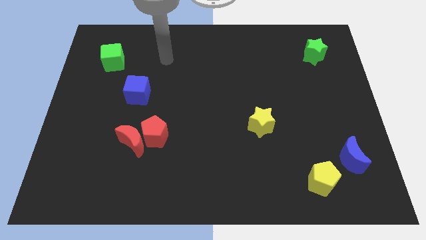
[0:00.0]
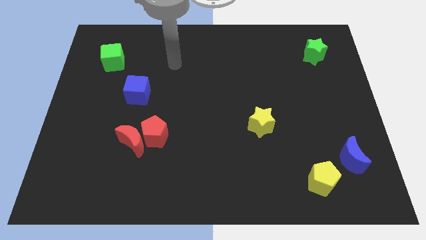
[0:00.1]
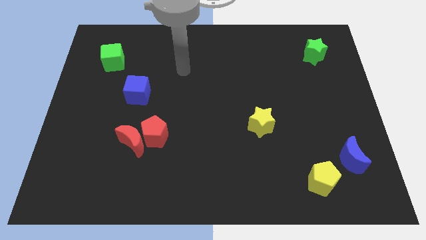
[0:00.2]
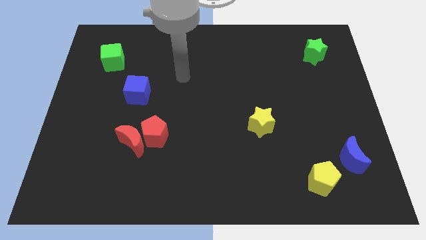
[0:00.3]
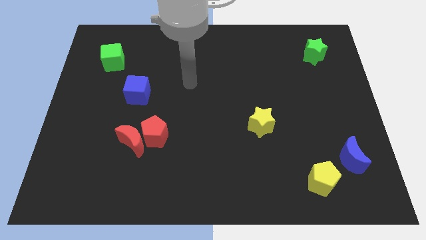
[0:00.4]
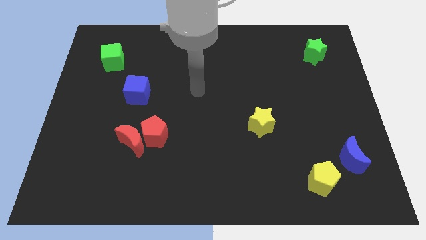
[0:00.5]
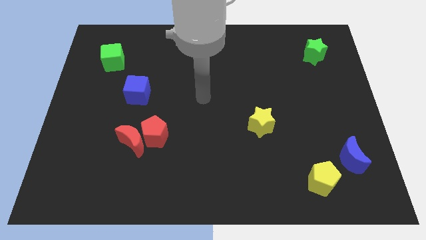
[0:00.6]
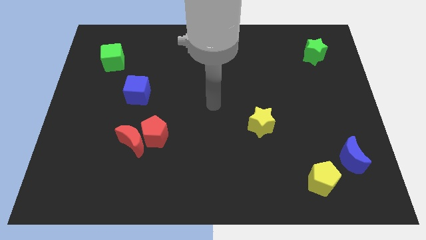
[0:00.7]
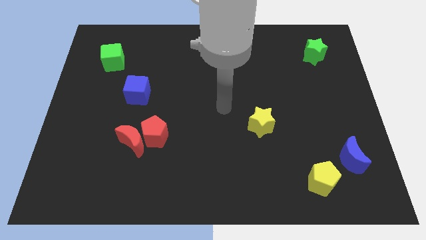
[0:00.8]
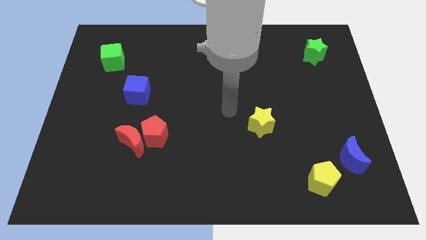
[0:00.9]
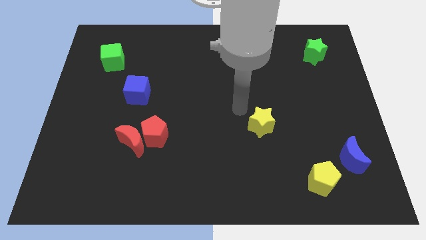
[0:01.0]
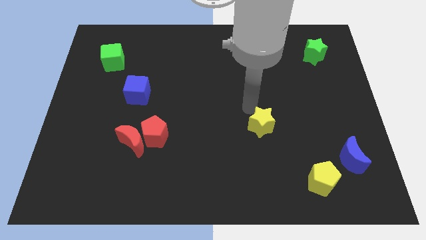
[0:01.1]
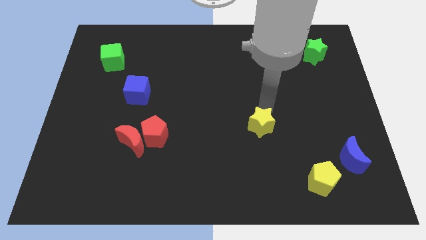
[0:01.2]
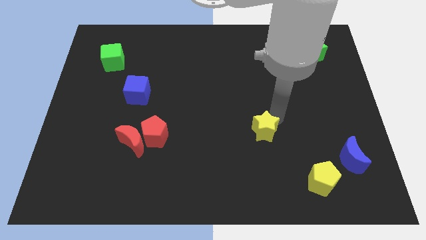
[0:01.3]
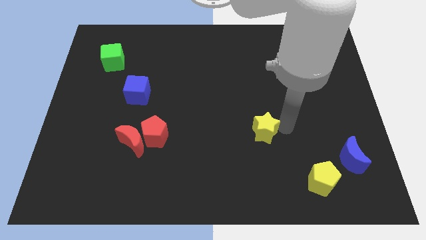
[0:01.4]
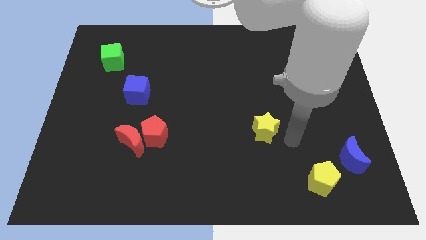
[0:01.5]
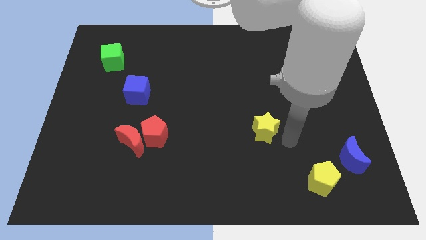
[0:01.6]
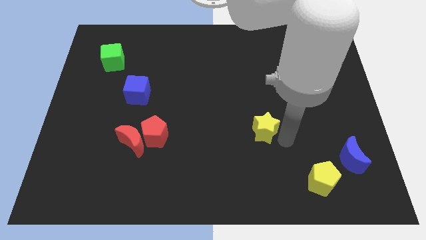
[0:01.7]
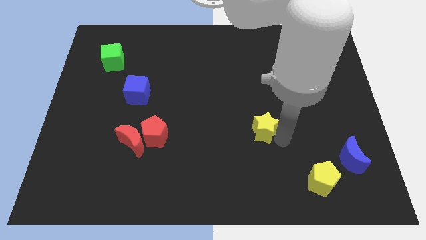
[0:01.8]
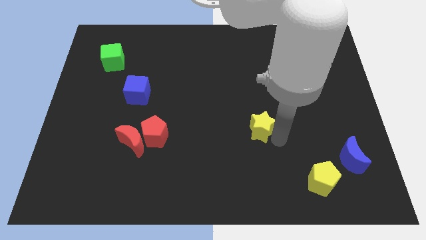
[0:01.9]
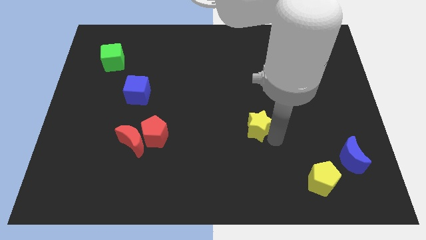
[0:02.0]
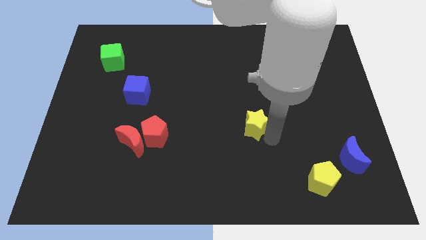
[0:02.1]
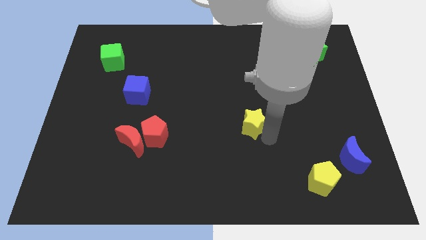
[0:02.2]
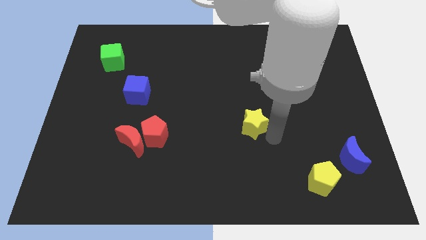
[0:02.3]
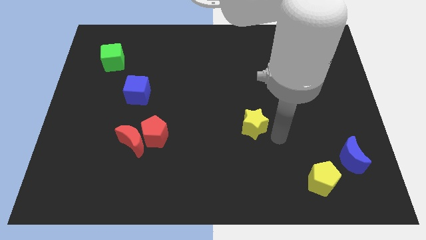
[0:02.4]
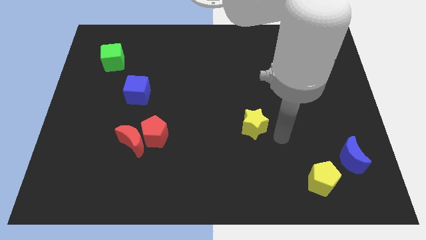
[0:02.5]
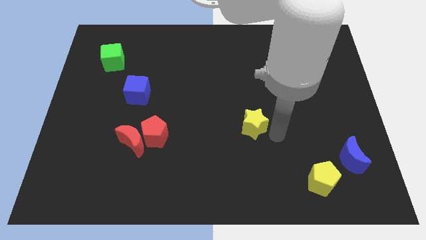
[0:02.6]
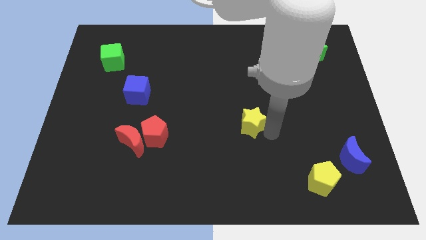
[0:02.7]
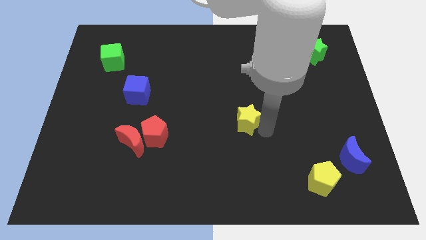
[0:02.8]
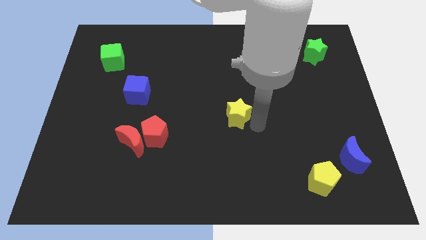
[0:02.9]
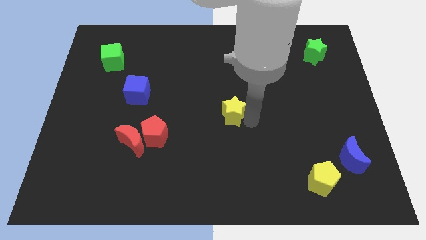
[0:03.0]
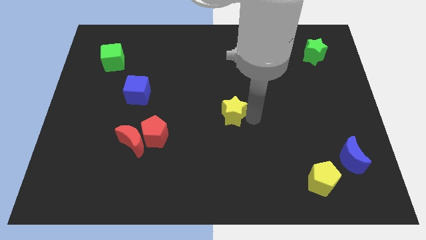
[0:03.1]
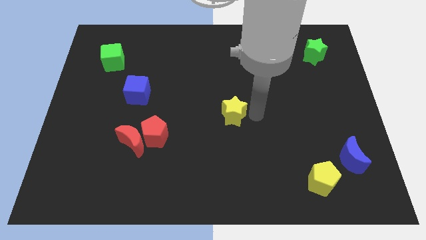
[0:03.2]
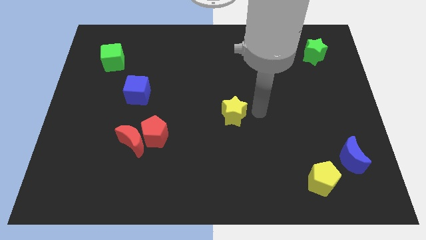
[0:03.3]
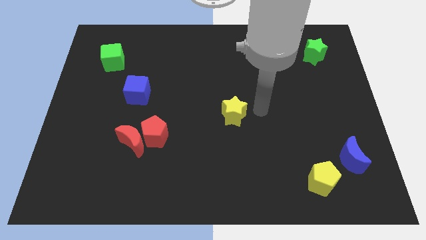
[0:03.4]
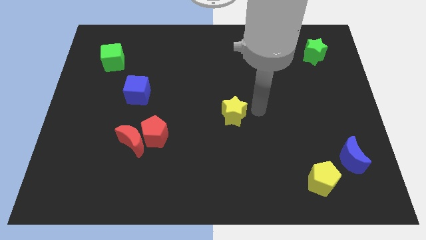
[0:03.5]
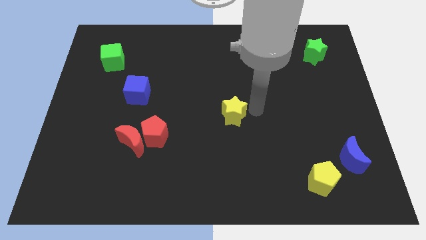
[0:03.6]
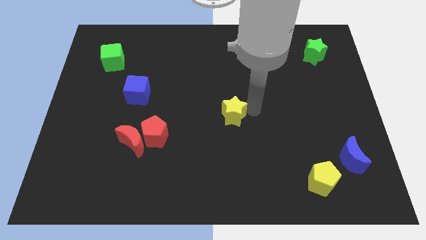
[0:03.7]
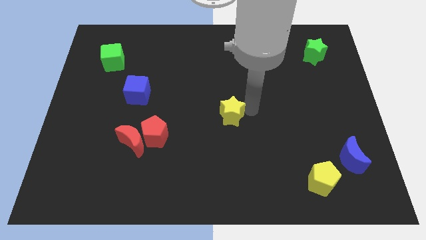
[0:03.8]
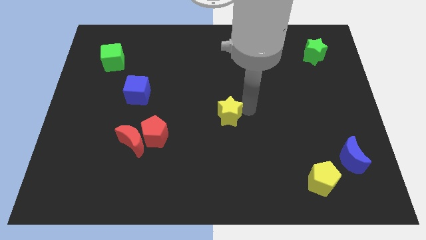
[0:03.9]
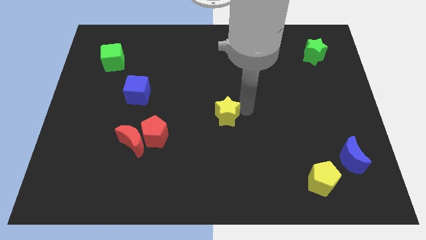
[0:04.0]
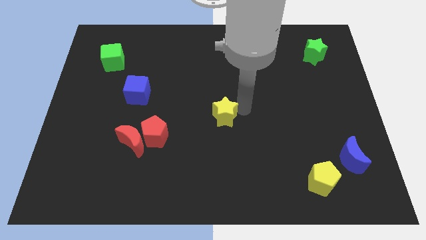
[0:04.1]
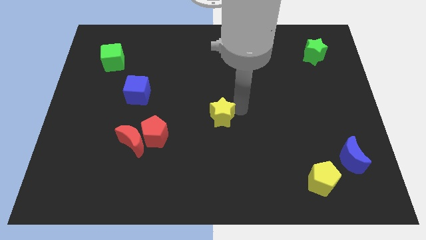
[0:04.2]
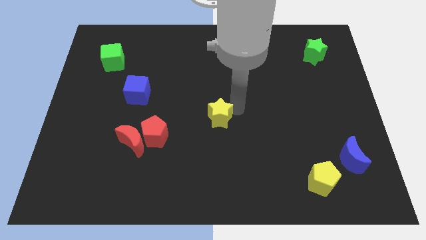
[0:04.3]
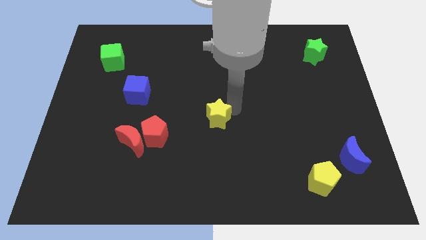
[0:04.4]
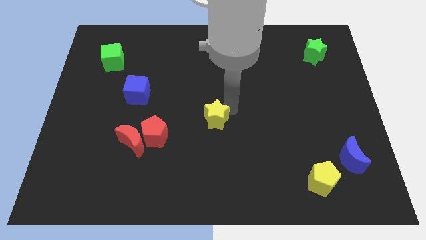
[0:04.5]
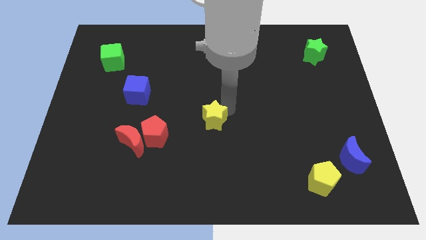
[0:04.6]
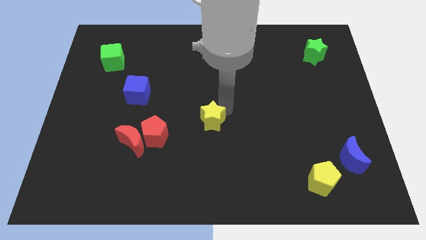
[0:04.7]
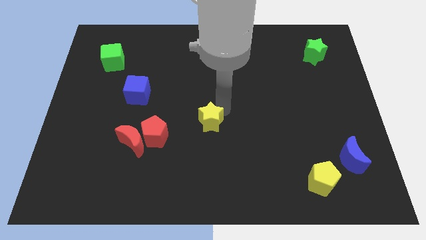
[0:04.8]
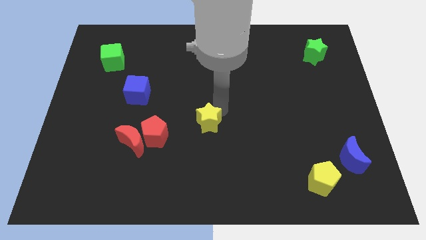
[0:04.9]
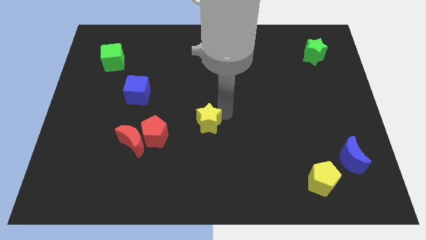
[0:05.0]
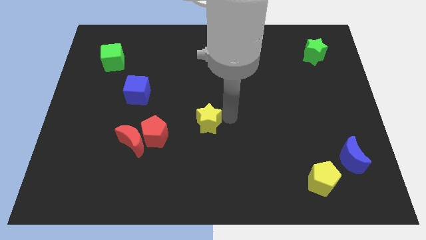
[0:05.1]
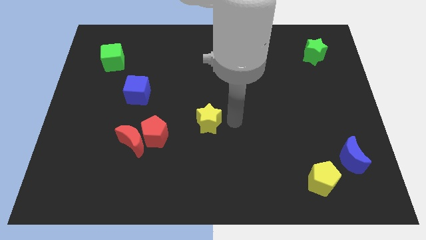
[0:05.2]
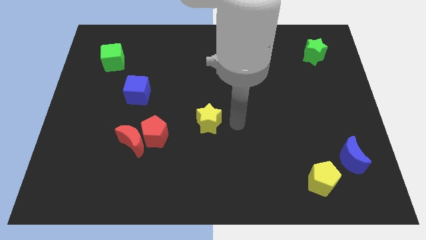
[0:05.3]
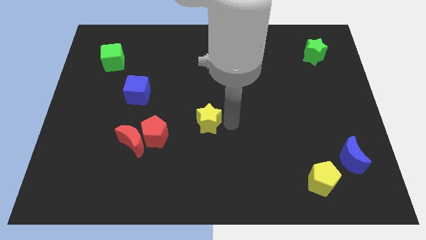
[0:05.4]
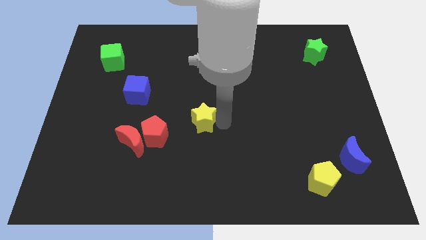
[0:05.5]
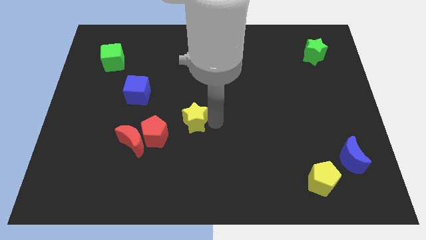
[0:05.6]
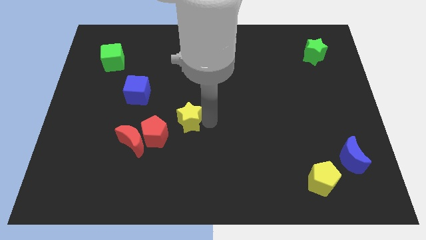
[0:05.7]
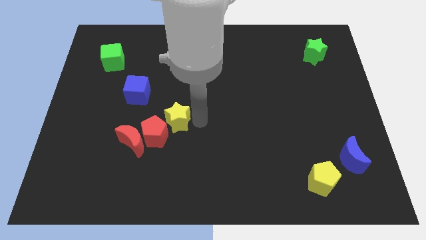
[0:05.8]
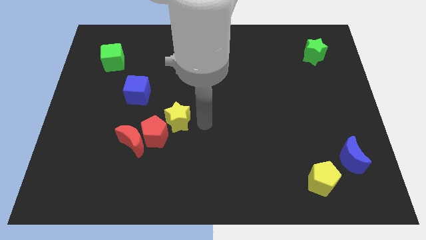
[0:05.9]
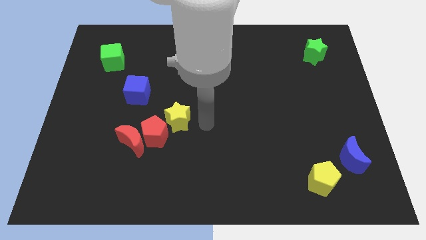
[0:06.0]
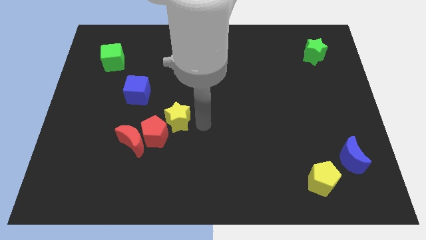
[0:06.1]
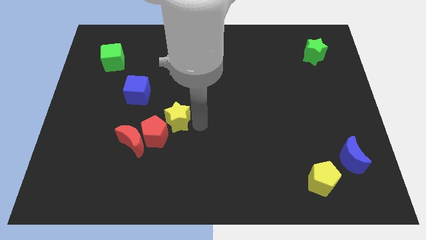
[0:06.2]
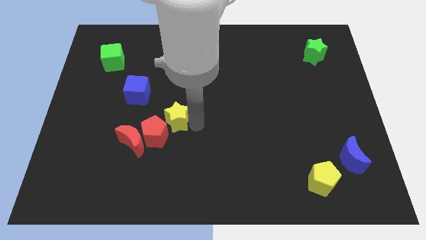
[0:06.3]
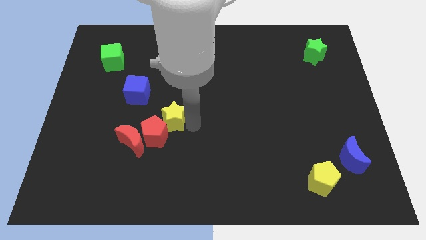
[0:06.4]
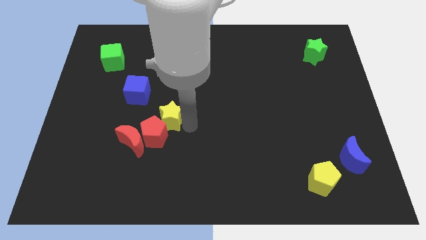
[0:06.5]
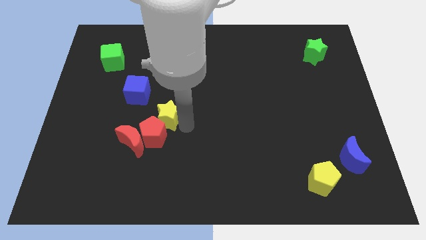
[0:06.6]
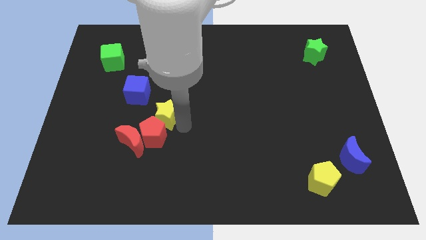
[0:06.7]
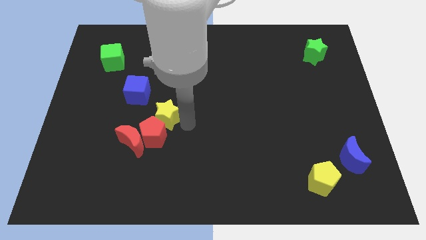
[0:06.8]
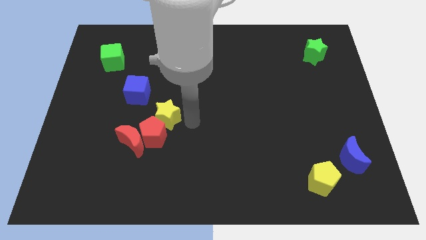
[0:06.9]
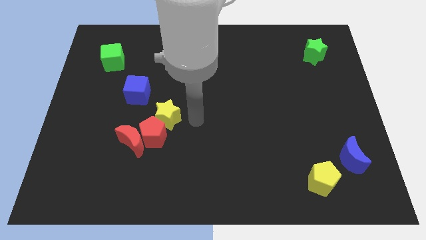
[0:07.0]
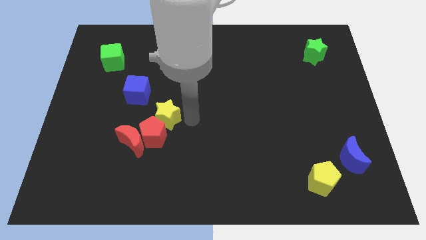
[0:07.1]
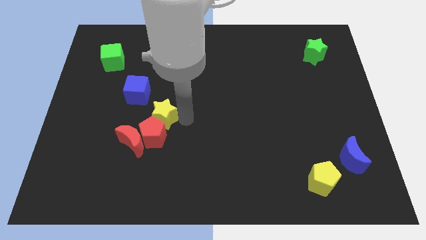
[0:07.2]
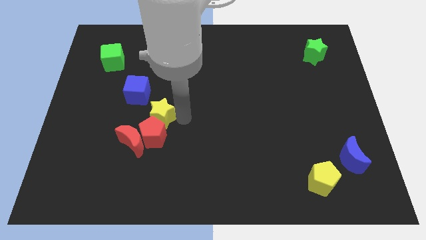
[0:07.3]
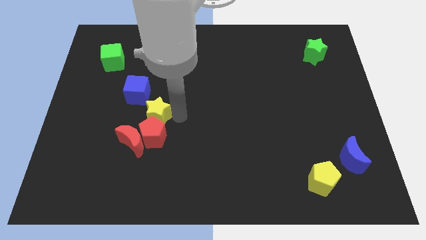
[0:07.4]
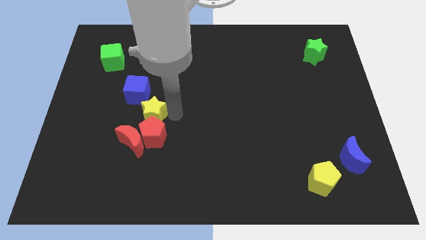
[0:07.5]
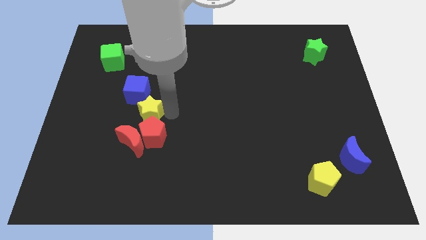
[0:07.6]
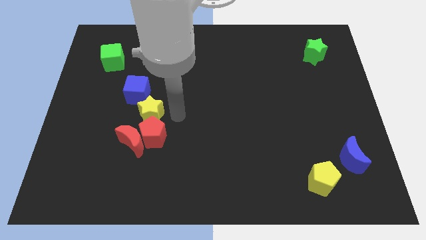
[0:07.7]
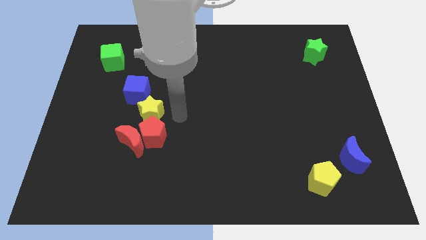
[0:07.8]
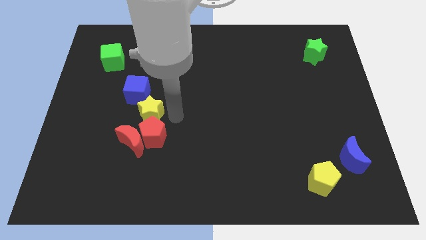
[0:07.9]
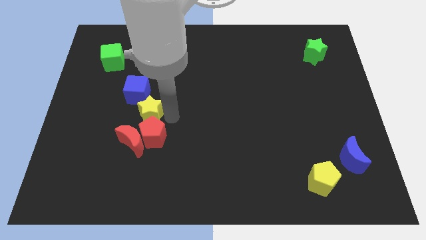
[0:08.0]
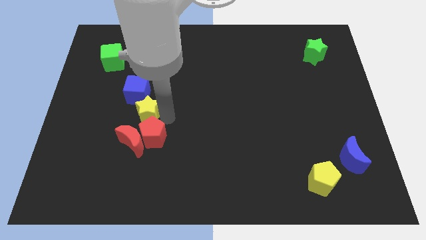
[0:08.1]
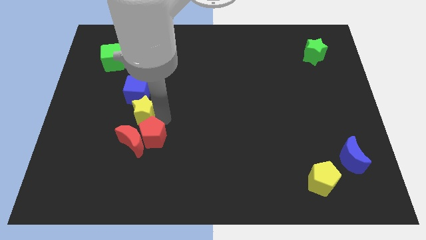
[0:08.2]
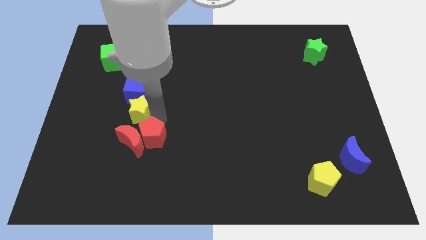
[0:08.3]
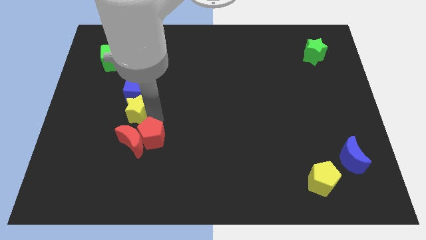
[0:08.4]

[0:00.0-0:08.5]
slide the yellow star diagonally down and to the left of the blue cube
